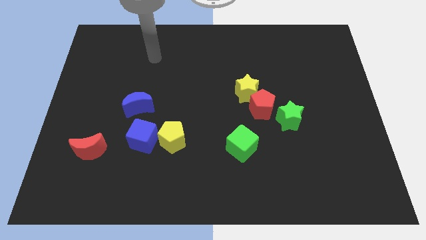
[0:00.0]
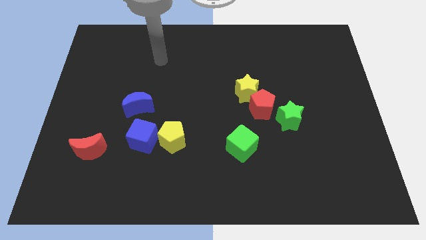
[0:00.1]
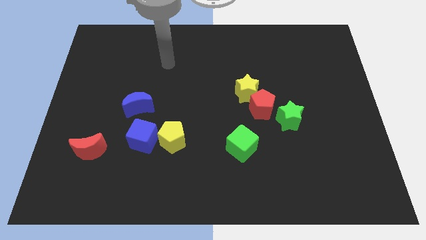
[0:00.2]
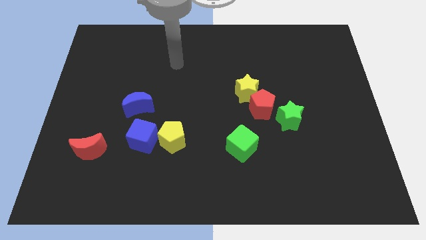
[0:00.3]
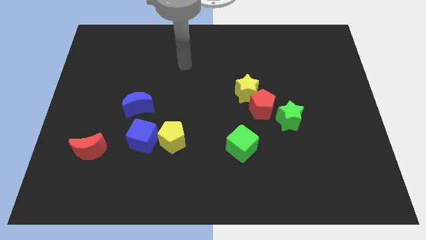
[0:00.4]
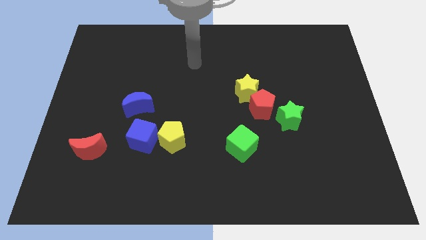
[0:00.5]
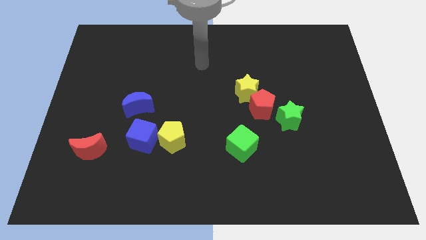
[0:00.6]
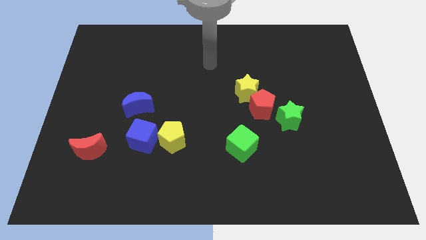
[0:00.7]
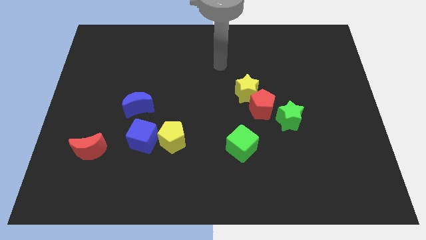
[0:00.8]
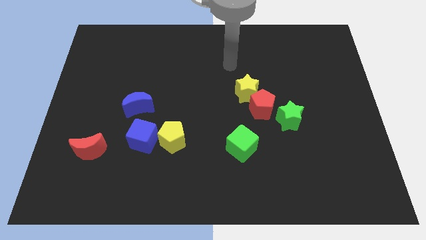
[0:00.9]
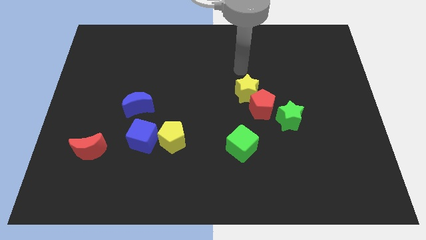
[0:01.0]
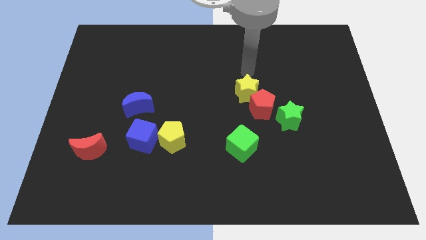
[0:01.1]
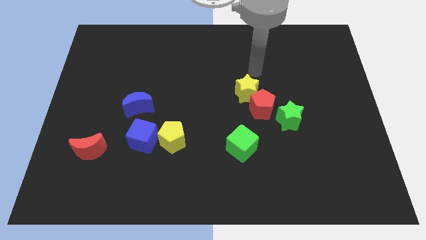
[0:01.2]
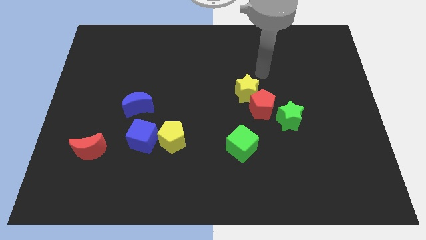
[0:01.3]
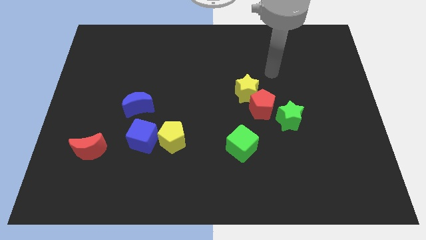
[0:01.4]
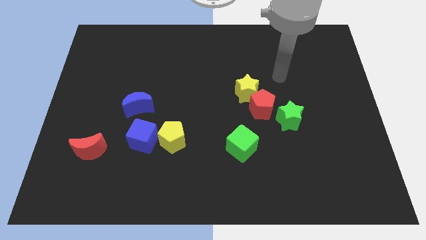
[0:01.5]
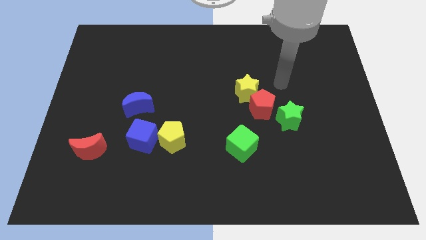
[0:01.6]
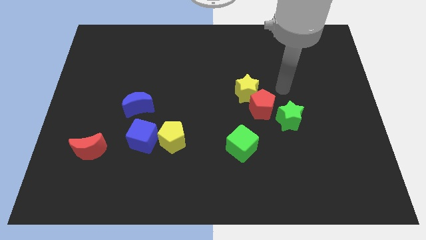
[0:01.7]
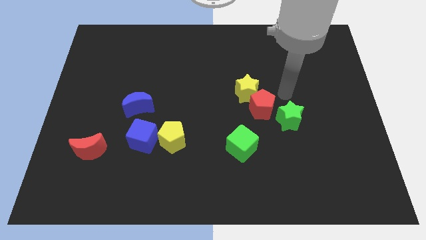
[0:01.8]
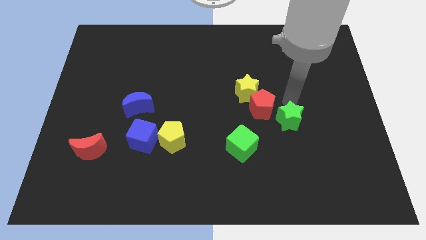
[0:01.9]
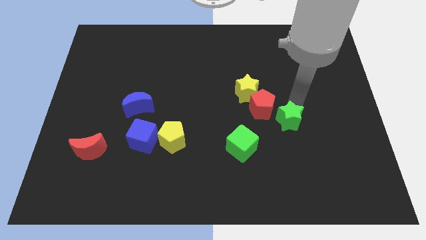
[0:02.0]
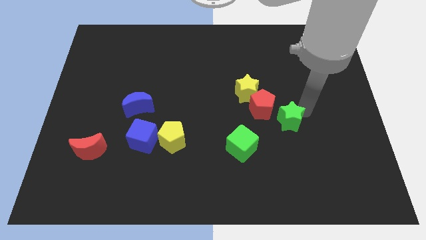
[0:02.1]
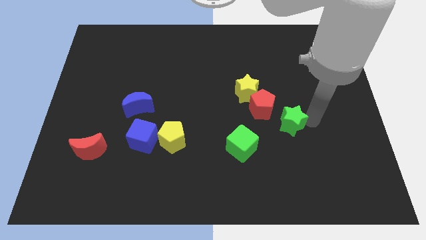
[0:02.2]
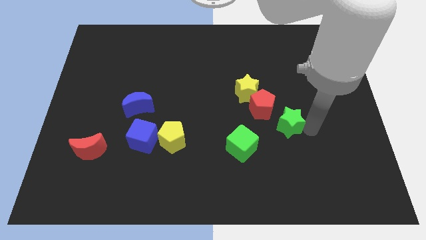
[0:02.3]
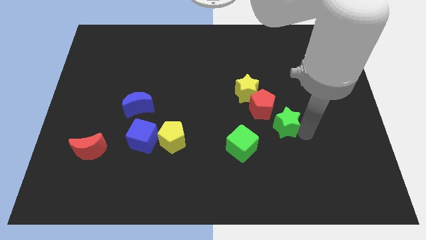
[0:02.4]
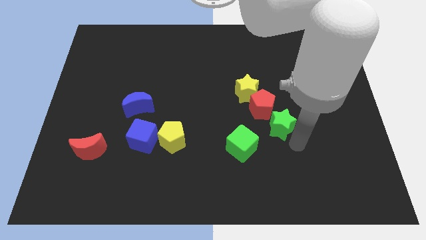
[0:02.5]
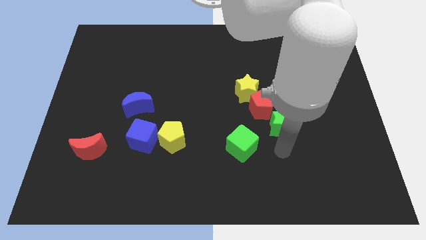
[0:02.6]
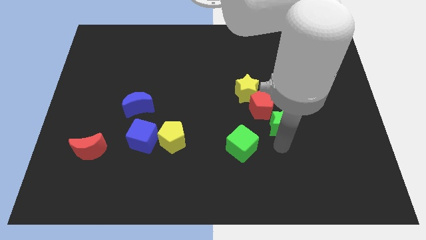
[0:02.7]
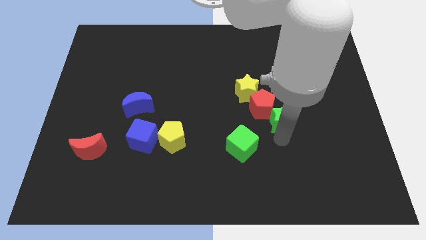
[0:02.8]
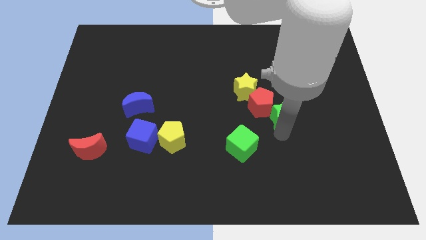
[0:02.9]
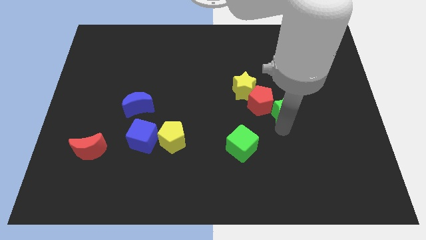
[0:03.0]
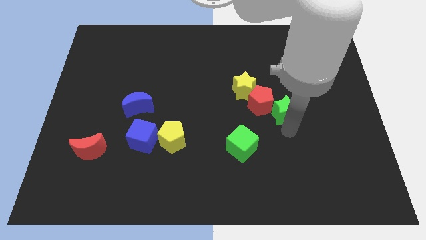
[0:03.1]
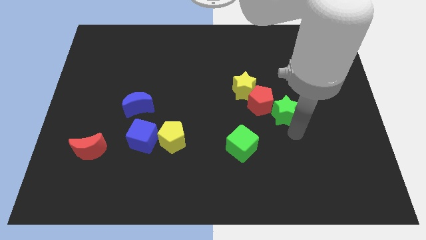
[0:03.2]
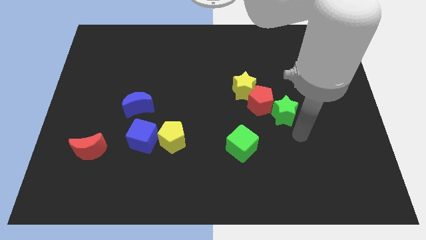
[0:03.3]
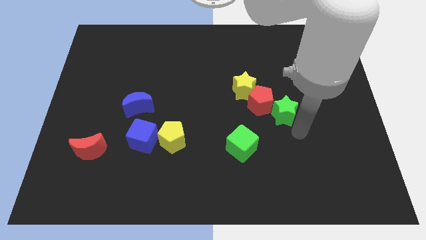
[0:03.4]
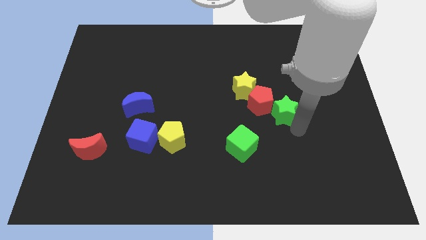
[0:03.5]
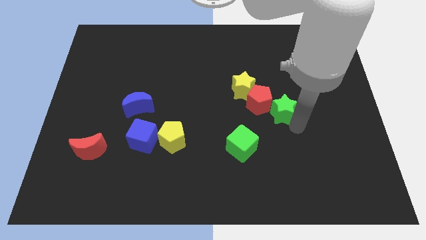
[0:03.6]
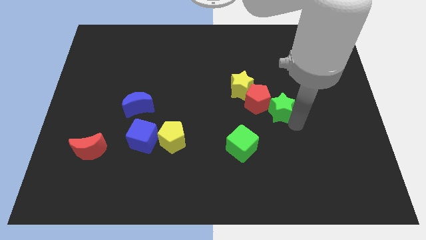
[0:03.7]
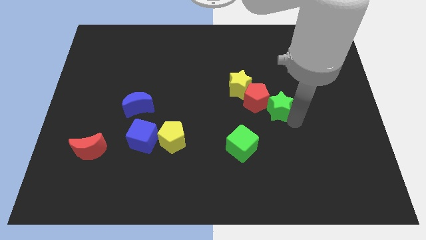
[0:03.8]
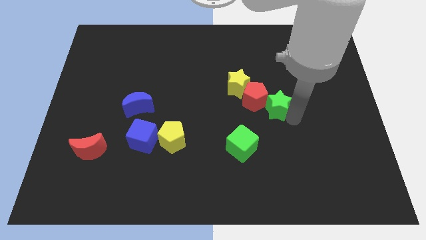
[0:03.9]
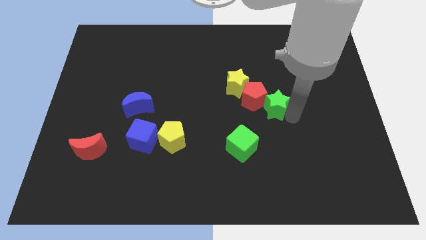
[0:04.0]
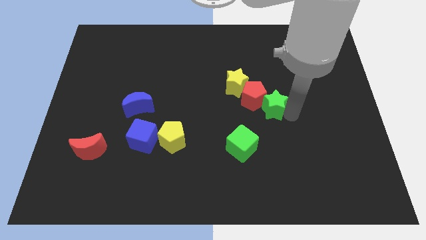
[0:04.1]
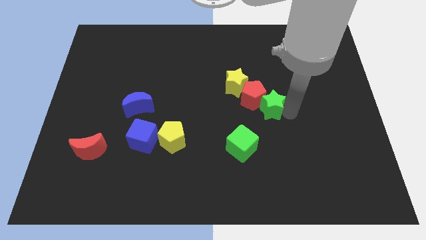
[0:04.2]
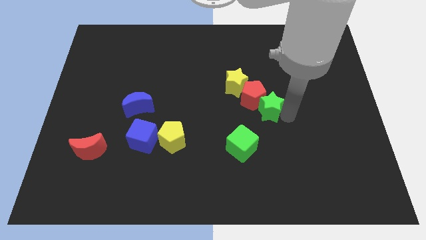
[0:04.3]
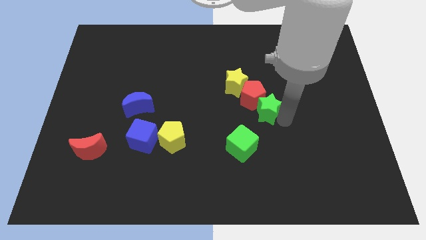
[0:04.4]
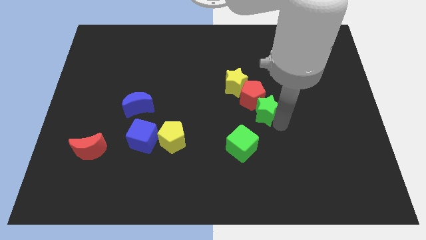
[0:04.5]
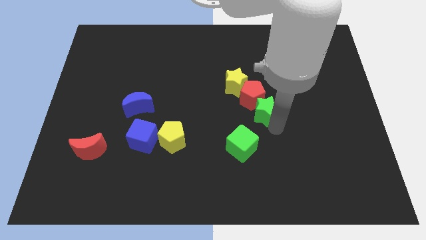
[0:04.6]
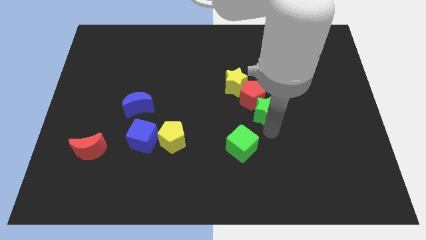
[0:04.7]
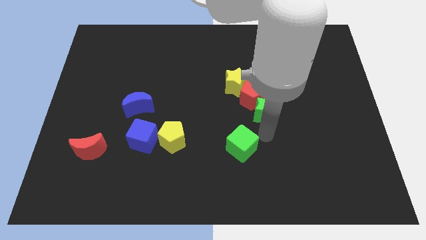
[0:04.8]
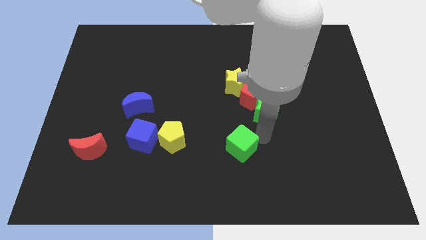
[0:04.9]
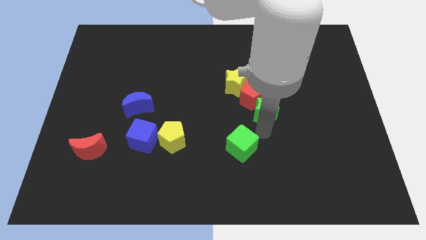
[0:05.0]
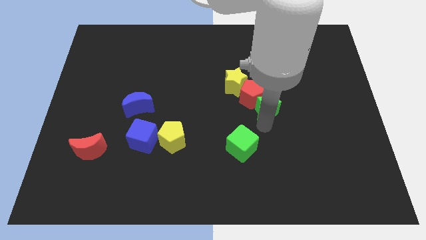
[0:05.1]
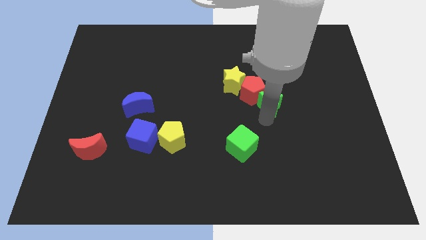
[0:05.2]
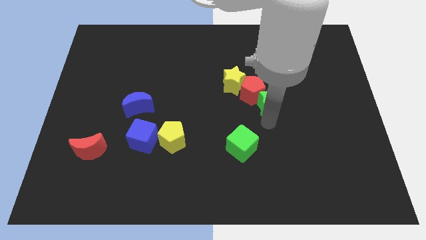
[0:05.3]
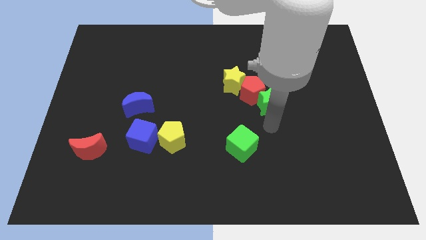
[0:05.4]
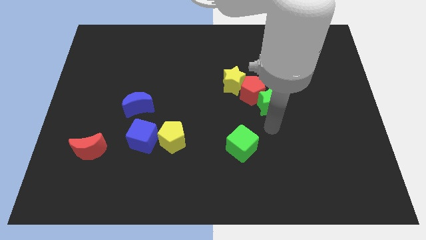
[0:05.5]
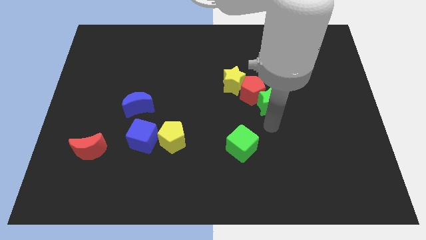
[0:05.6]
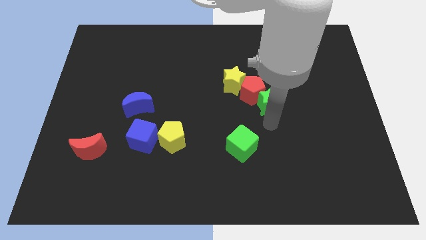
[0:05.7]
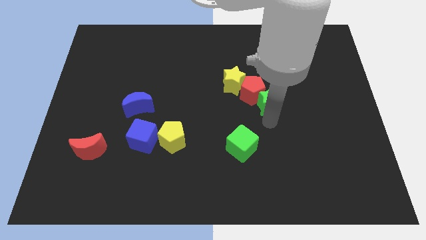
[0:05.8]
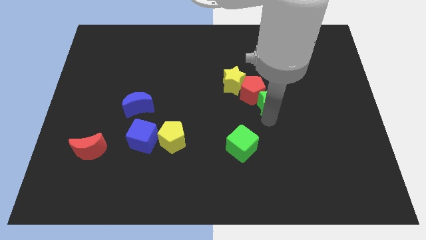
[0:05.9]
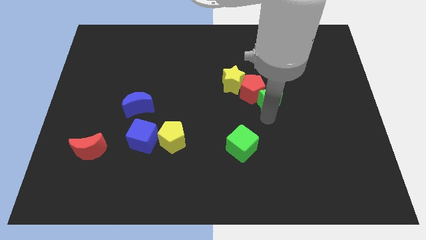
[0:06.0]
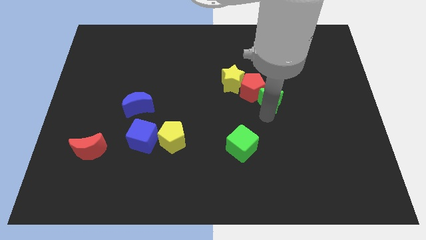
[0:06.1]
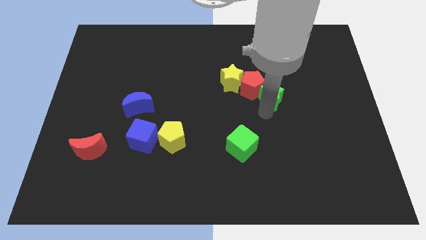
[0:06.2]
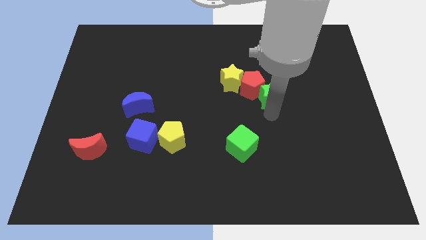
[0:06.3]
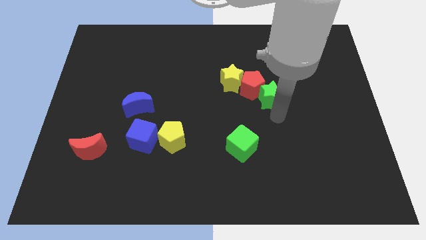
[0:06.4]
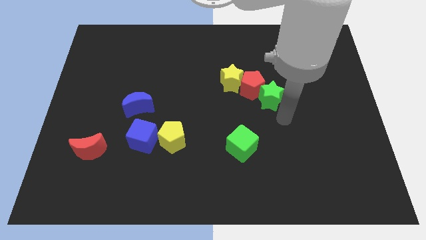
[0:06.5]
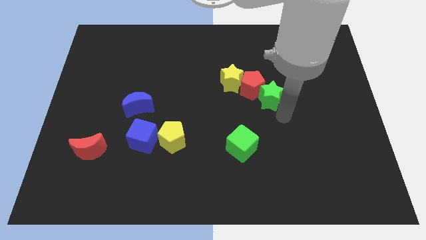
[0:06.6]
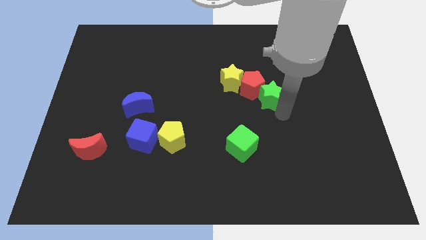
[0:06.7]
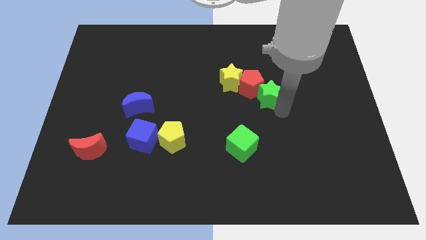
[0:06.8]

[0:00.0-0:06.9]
push the green star slightly up and then left

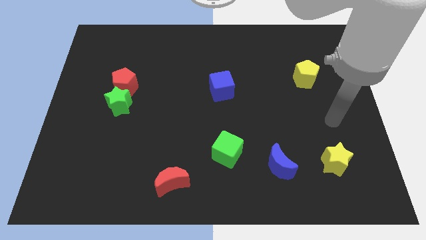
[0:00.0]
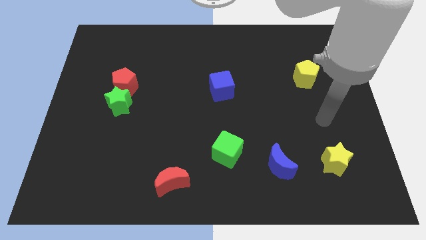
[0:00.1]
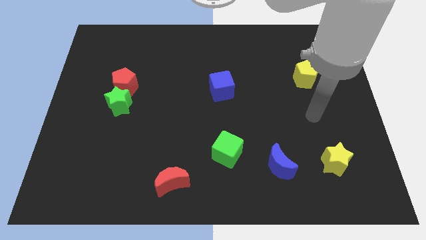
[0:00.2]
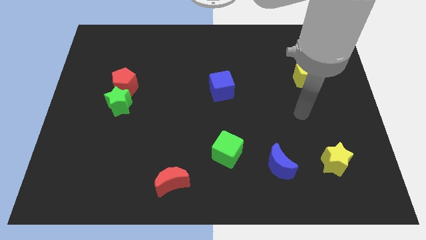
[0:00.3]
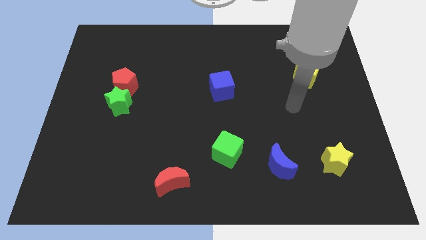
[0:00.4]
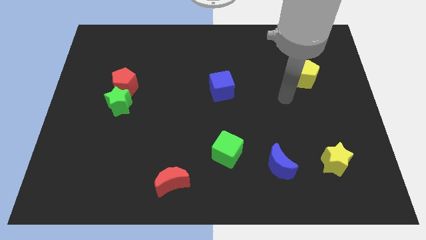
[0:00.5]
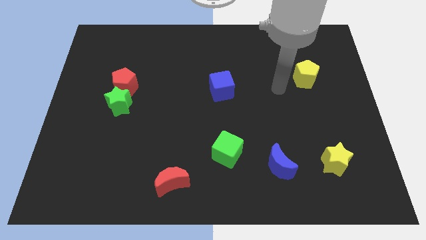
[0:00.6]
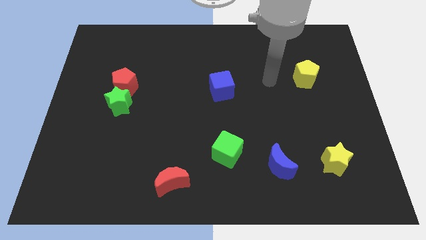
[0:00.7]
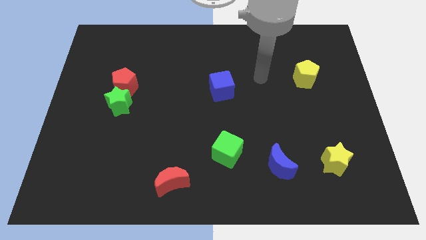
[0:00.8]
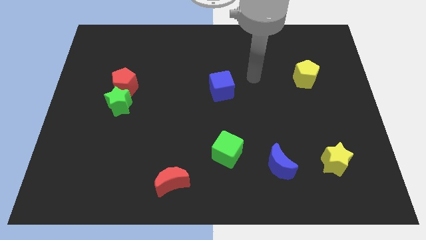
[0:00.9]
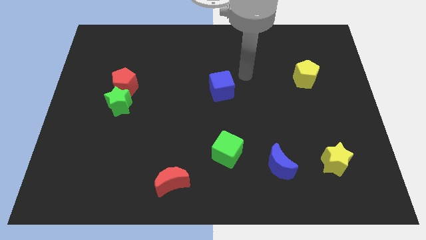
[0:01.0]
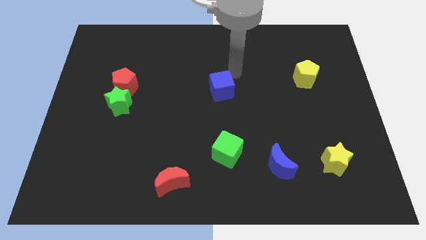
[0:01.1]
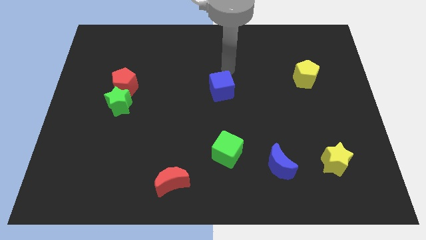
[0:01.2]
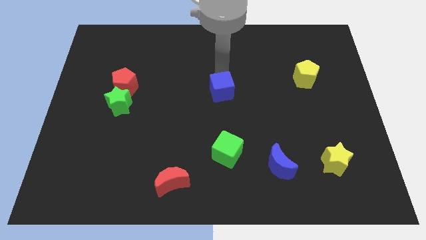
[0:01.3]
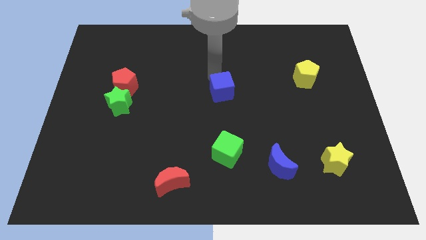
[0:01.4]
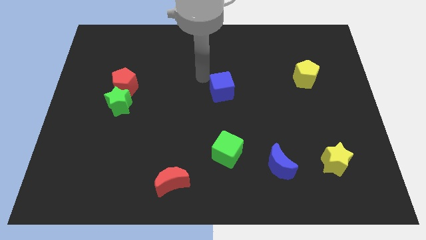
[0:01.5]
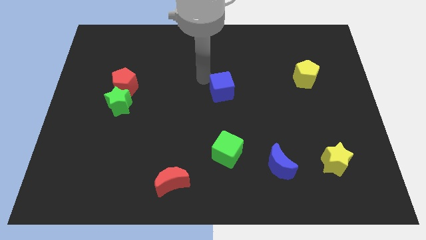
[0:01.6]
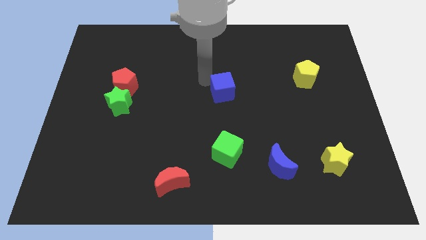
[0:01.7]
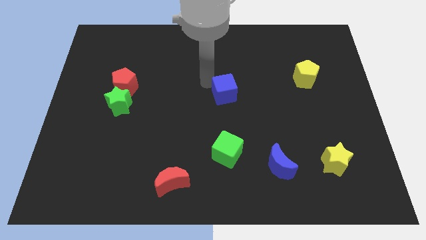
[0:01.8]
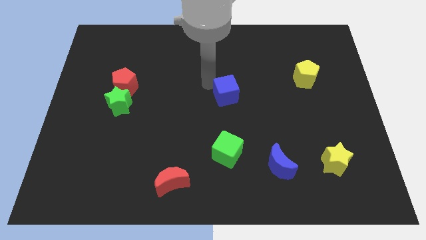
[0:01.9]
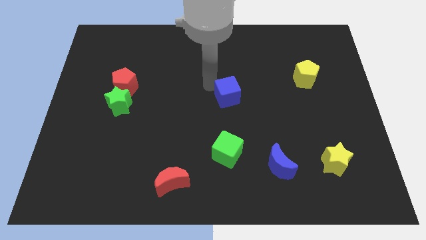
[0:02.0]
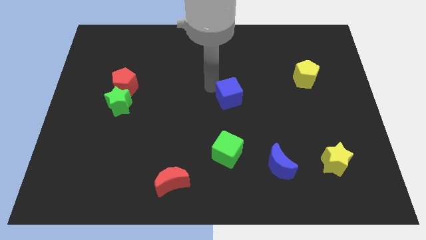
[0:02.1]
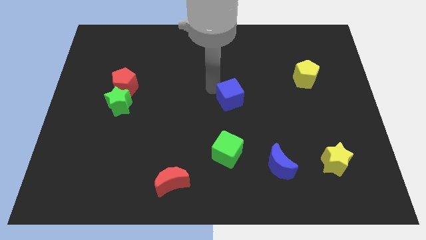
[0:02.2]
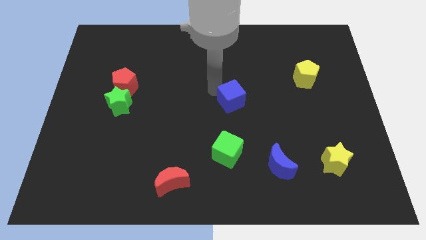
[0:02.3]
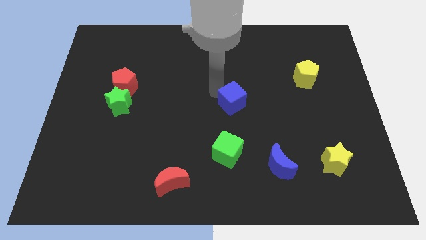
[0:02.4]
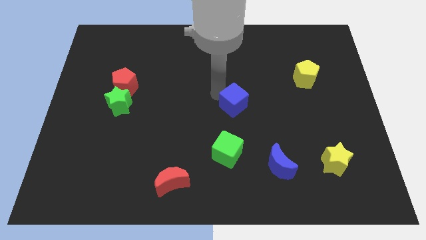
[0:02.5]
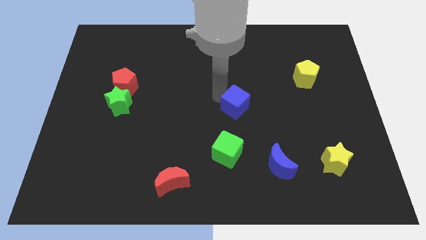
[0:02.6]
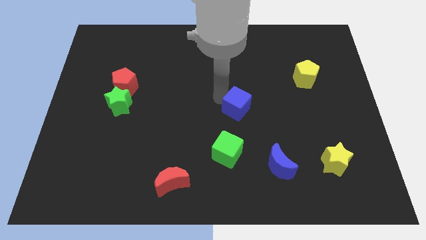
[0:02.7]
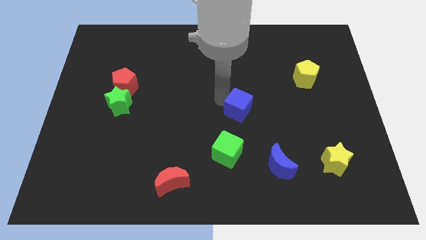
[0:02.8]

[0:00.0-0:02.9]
push the blue cube downwards and right a bit
